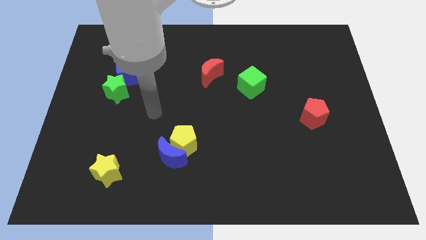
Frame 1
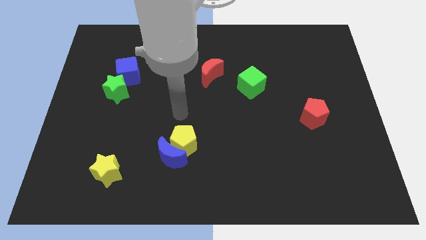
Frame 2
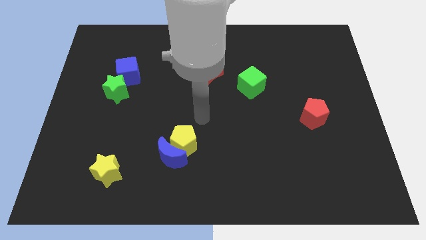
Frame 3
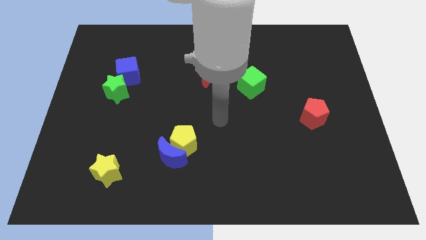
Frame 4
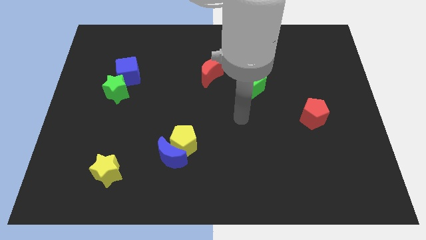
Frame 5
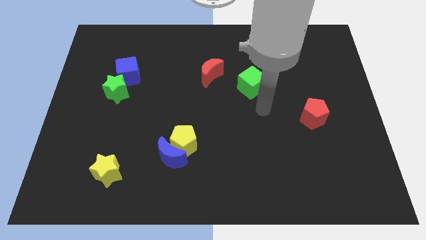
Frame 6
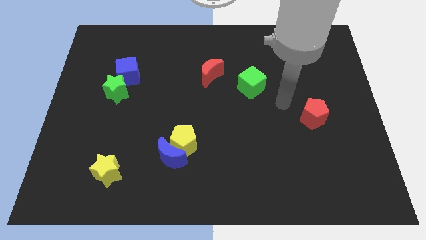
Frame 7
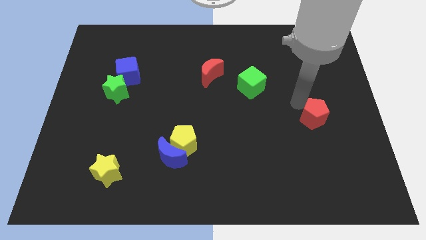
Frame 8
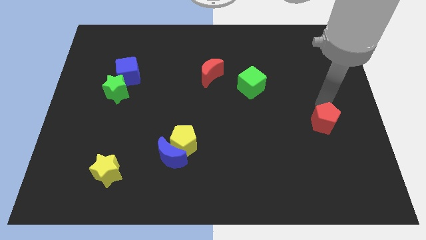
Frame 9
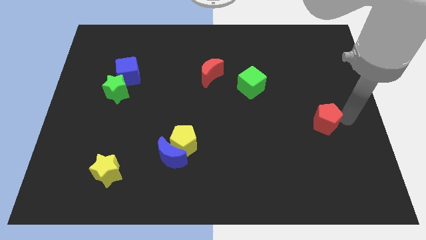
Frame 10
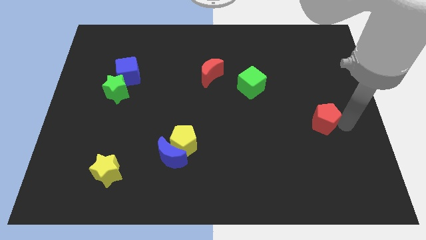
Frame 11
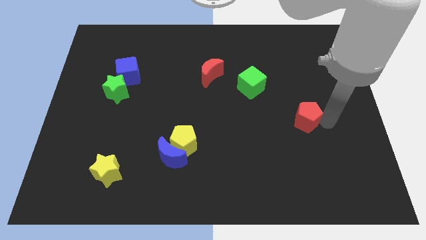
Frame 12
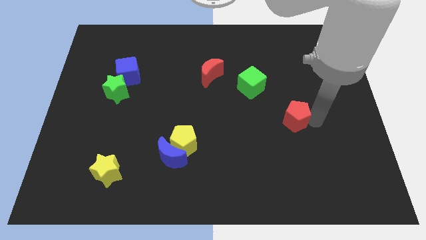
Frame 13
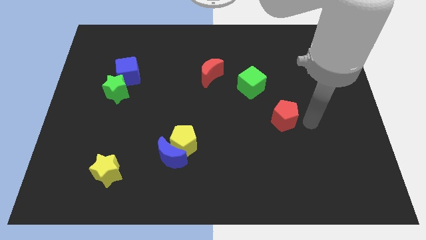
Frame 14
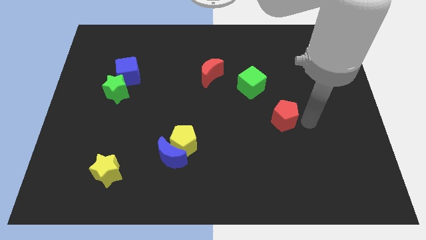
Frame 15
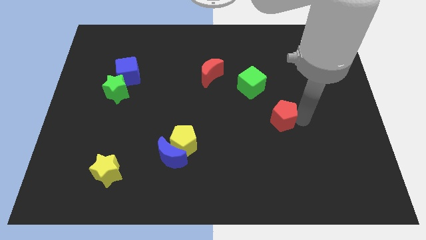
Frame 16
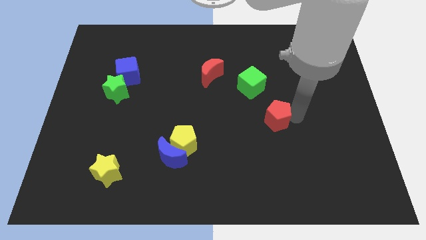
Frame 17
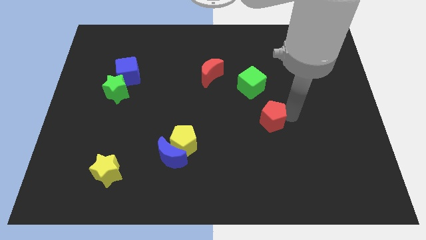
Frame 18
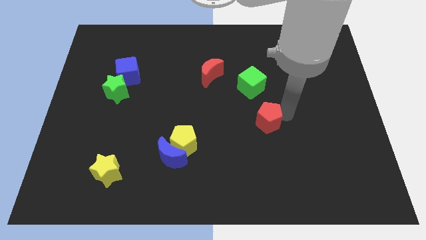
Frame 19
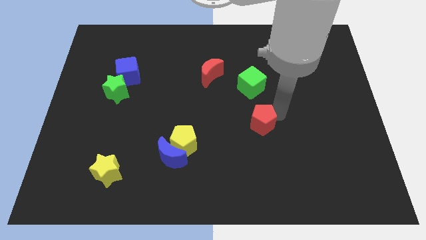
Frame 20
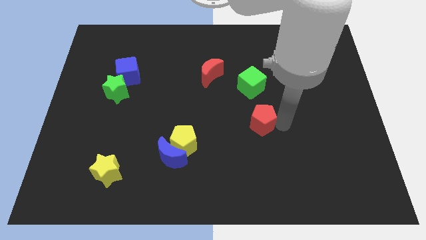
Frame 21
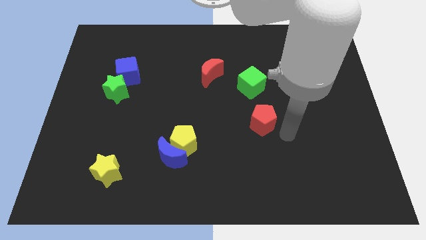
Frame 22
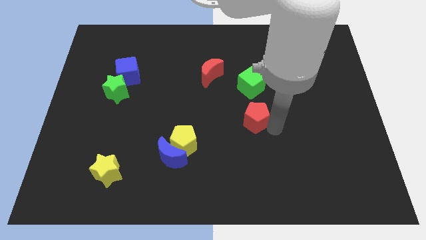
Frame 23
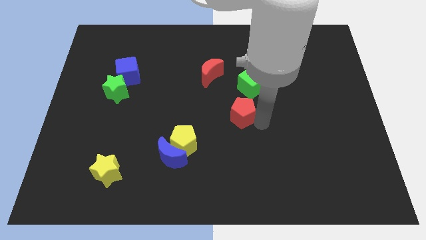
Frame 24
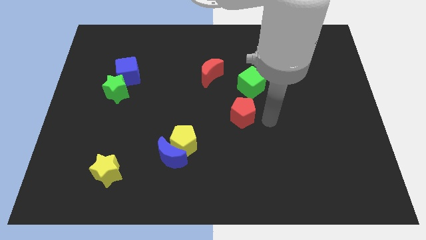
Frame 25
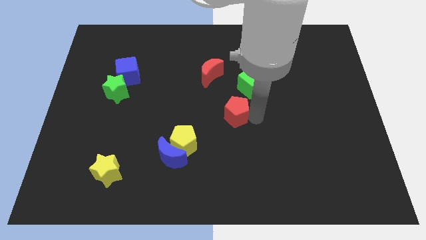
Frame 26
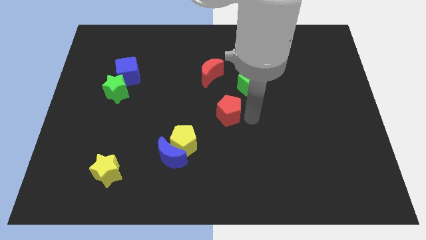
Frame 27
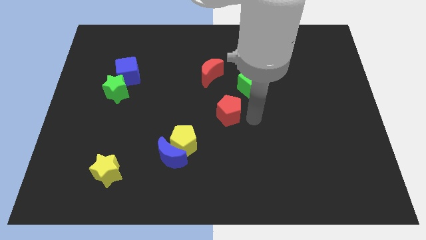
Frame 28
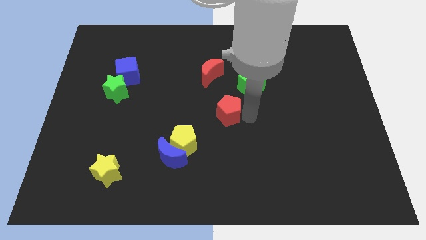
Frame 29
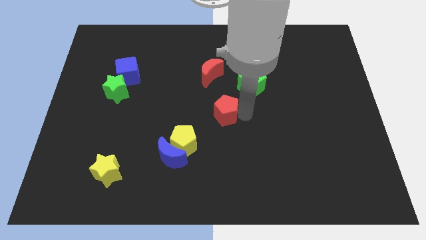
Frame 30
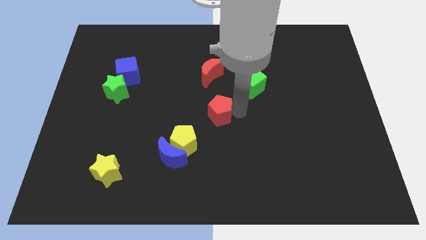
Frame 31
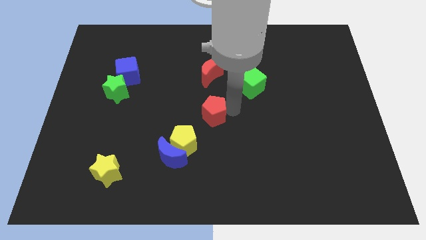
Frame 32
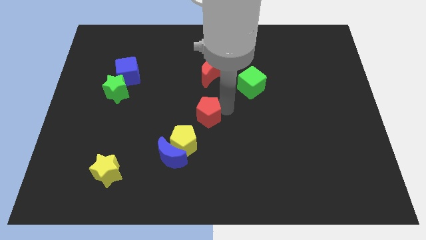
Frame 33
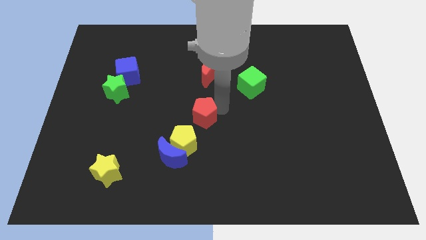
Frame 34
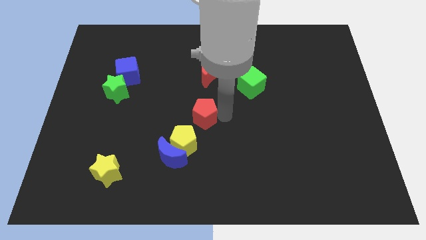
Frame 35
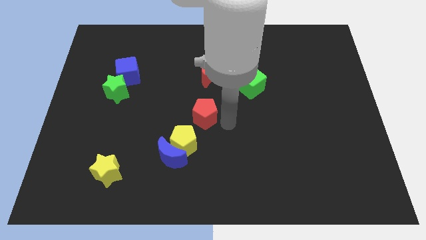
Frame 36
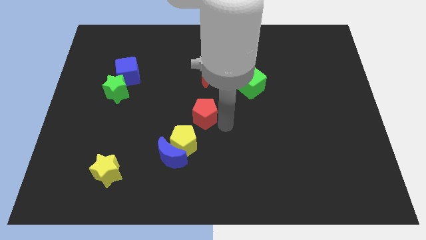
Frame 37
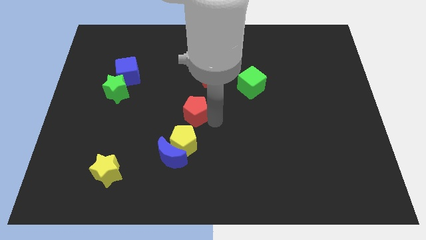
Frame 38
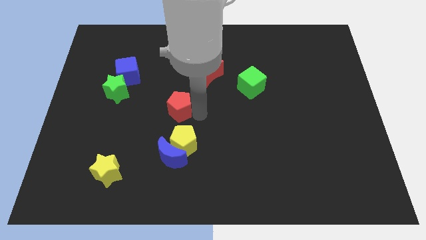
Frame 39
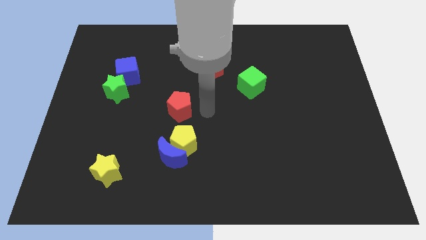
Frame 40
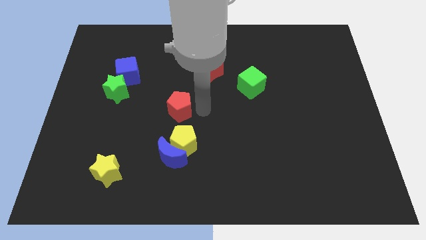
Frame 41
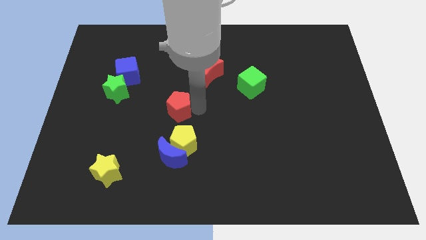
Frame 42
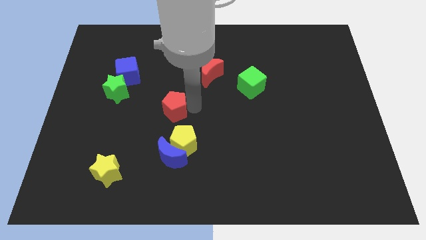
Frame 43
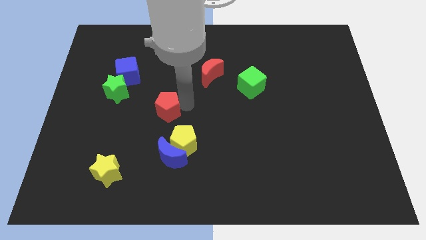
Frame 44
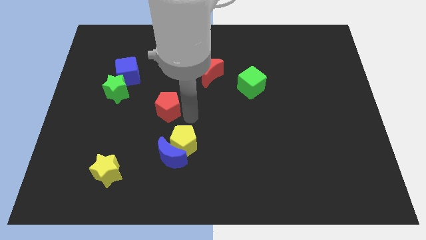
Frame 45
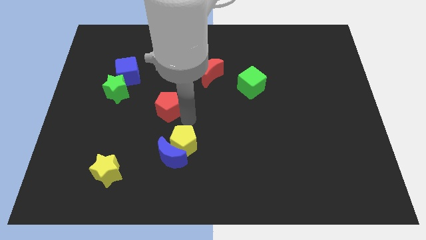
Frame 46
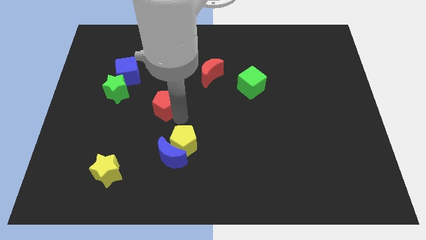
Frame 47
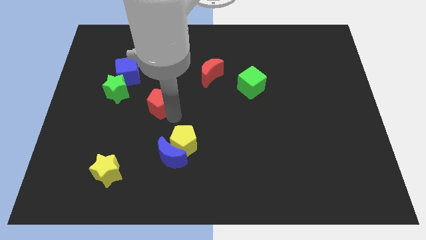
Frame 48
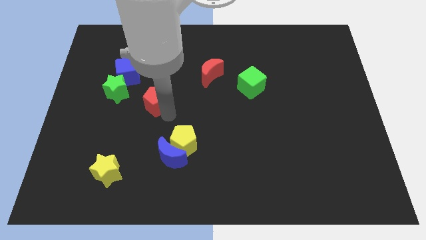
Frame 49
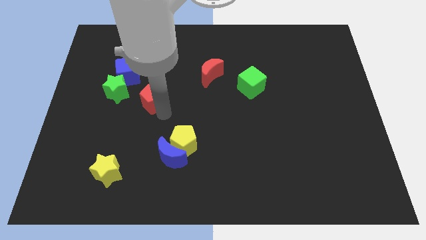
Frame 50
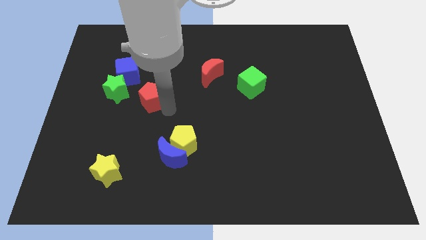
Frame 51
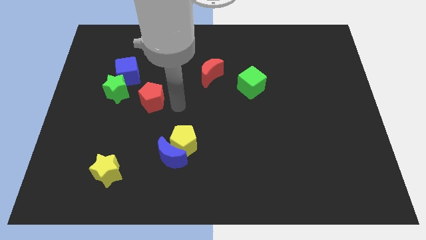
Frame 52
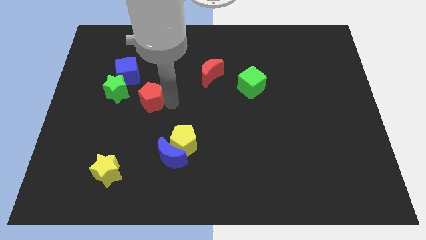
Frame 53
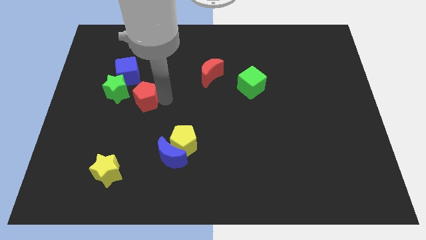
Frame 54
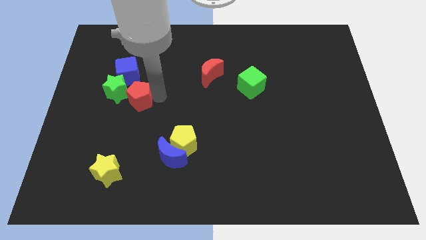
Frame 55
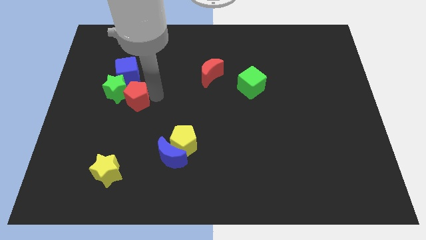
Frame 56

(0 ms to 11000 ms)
put the red pentagon next to the green star
